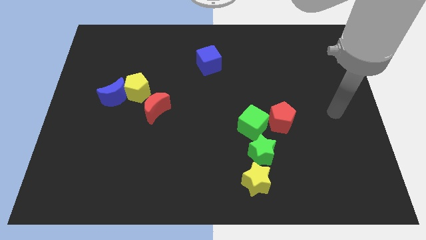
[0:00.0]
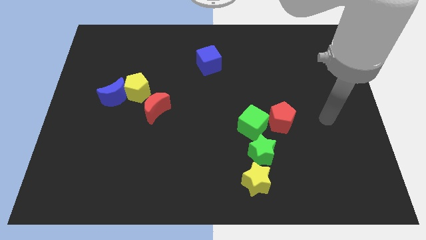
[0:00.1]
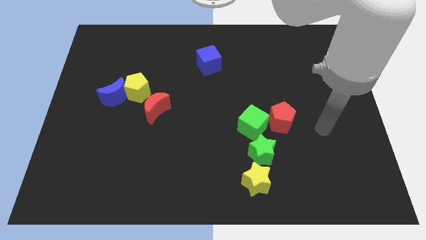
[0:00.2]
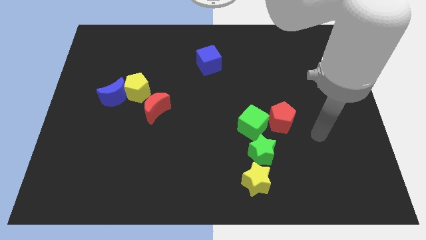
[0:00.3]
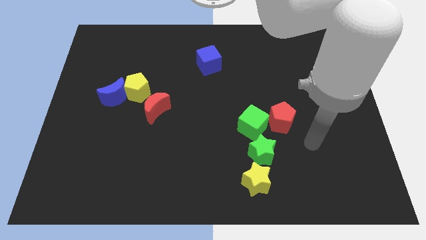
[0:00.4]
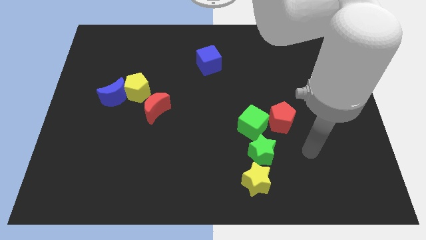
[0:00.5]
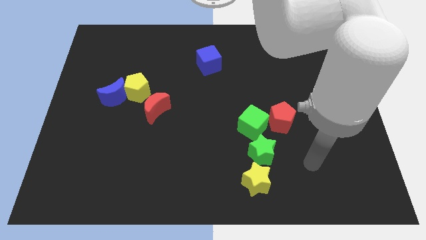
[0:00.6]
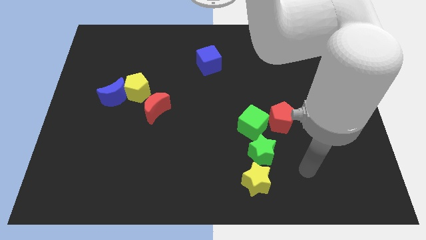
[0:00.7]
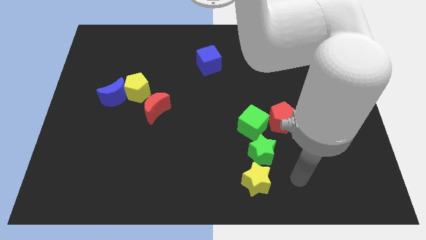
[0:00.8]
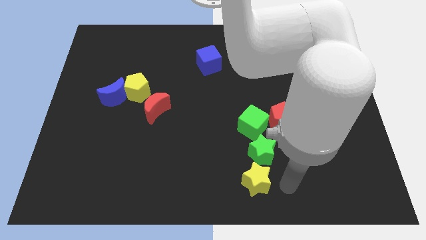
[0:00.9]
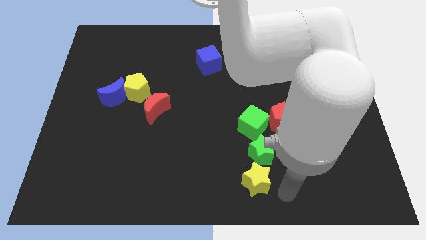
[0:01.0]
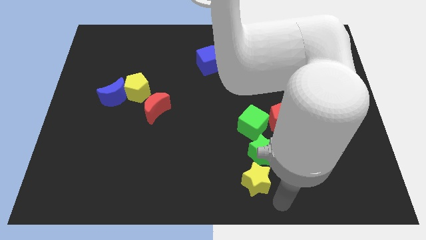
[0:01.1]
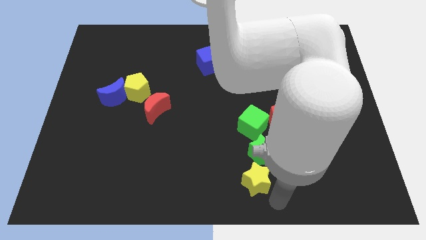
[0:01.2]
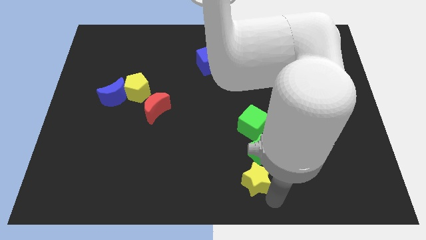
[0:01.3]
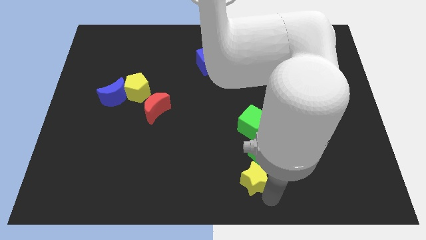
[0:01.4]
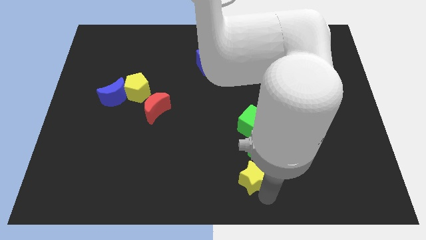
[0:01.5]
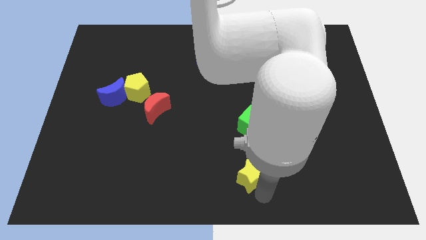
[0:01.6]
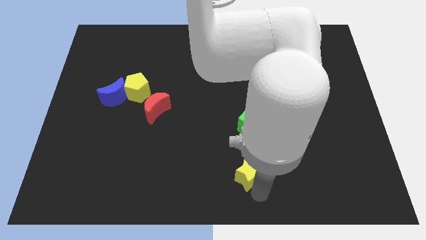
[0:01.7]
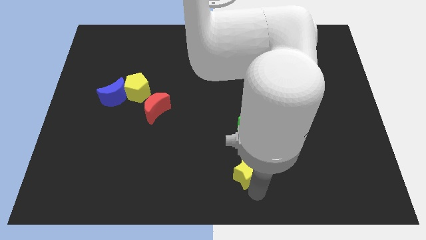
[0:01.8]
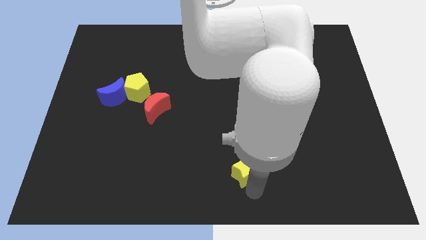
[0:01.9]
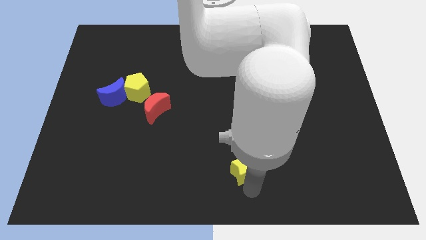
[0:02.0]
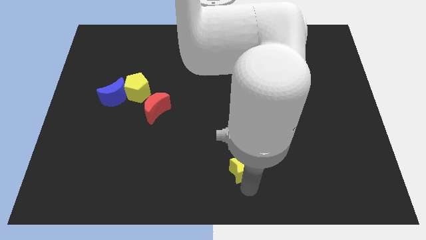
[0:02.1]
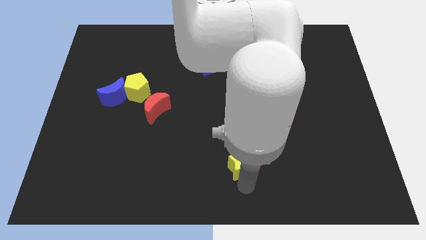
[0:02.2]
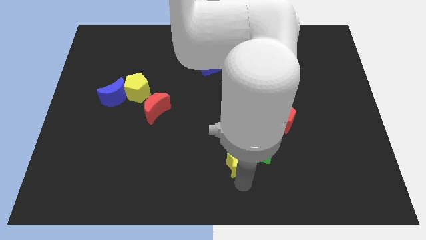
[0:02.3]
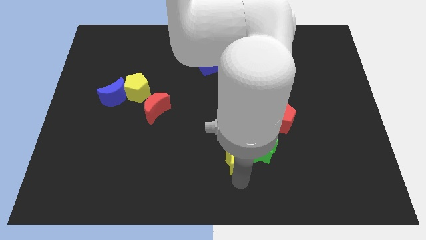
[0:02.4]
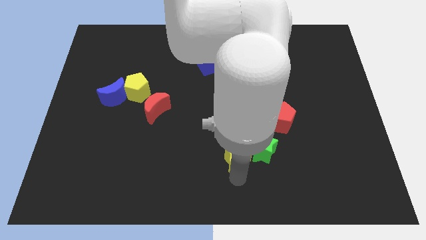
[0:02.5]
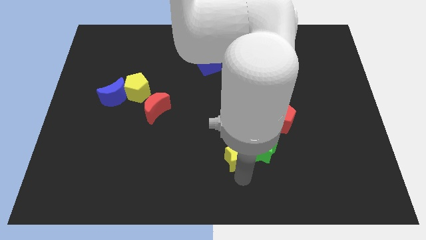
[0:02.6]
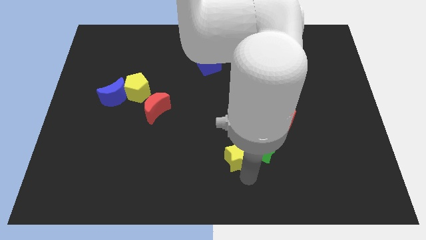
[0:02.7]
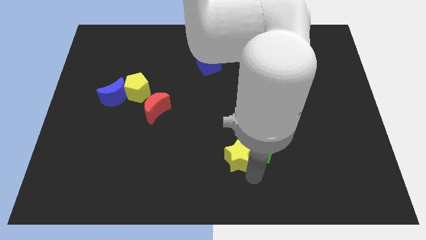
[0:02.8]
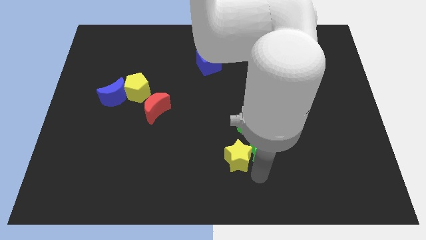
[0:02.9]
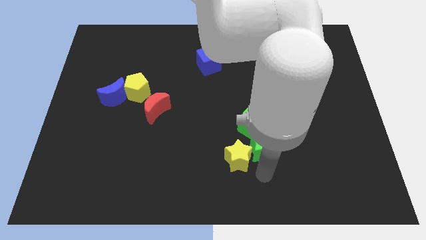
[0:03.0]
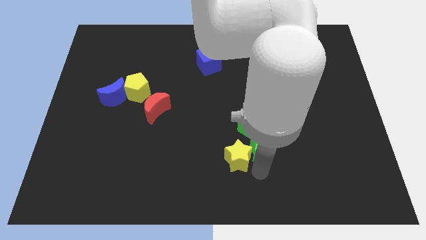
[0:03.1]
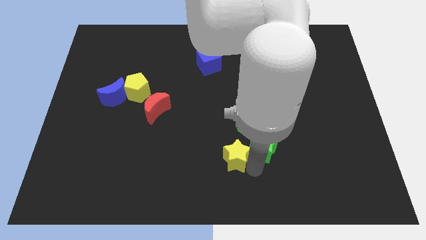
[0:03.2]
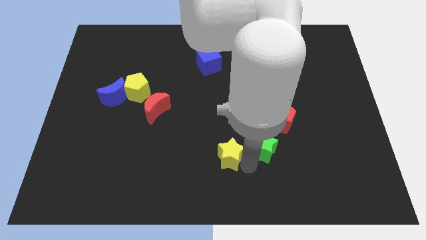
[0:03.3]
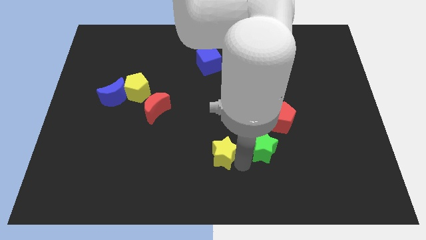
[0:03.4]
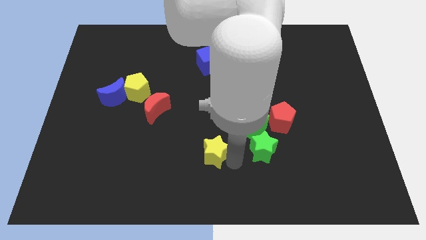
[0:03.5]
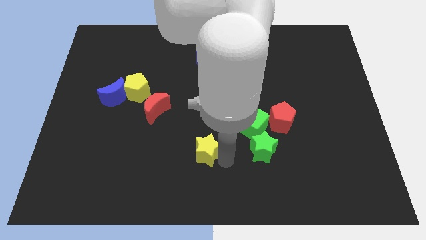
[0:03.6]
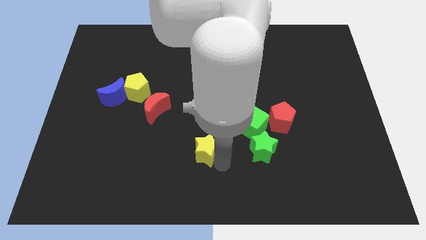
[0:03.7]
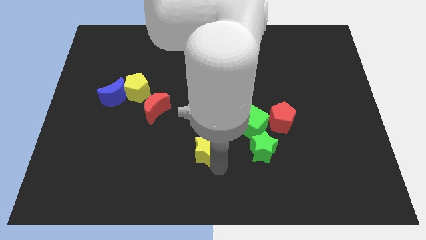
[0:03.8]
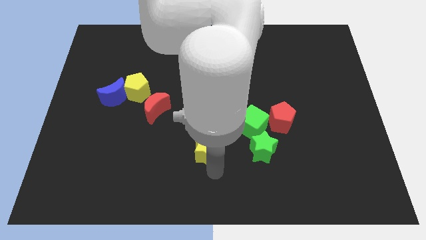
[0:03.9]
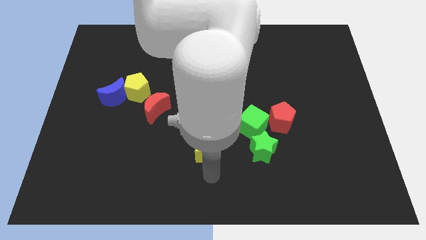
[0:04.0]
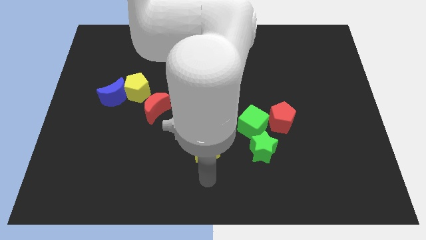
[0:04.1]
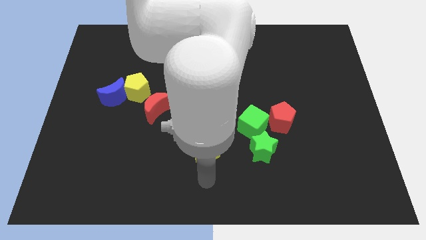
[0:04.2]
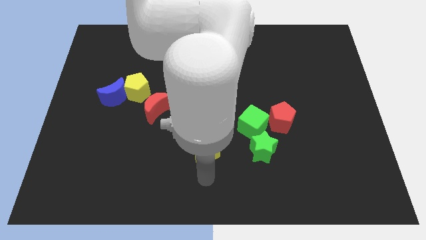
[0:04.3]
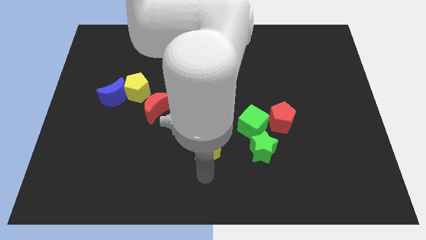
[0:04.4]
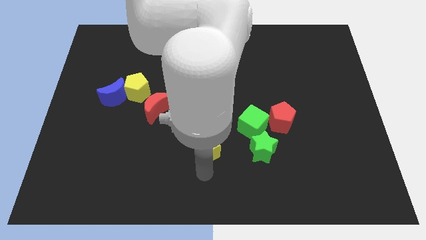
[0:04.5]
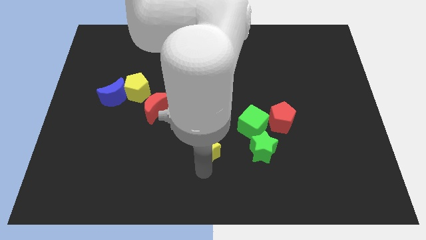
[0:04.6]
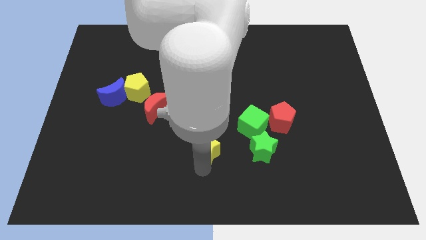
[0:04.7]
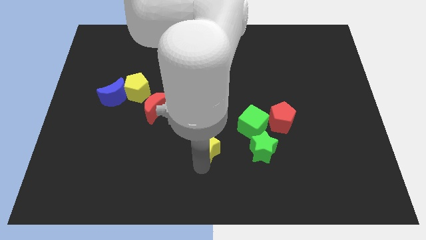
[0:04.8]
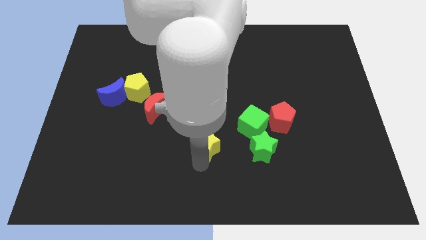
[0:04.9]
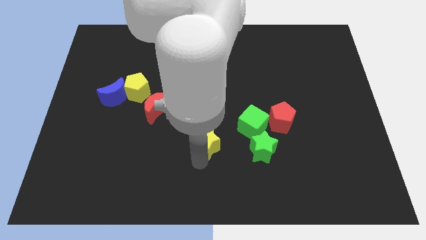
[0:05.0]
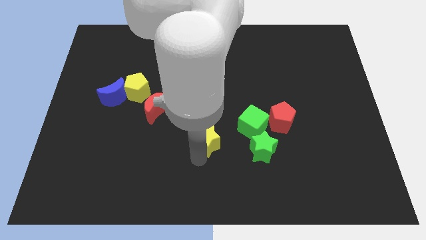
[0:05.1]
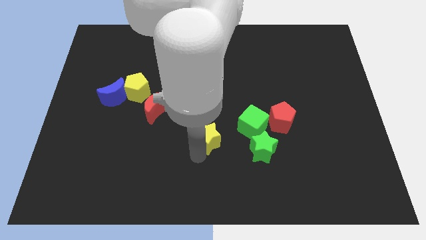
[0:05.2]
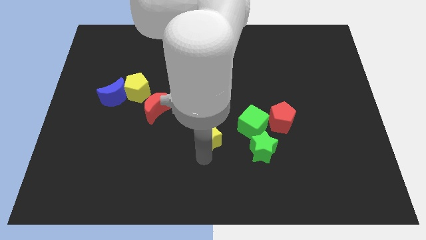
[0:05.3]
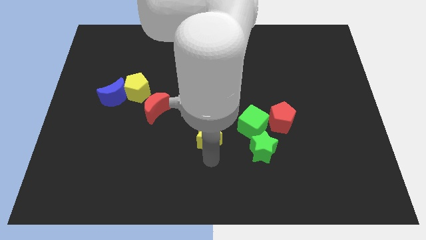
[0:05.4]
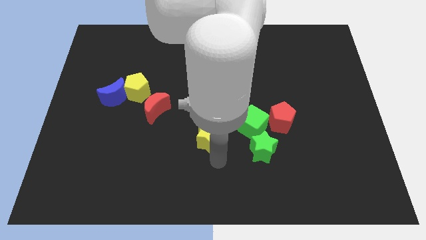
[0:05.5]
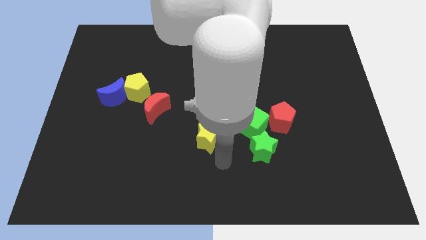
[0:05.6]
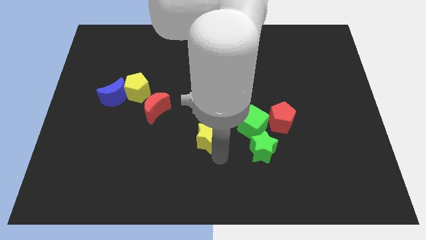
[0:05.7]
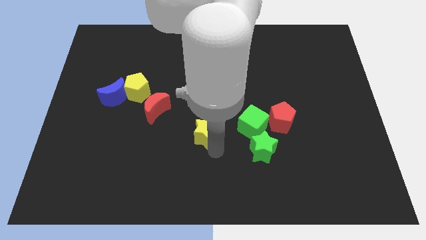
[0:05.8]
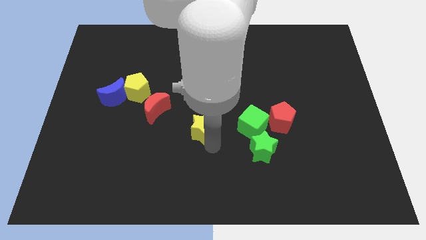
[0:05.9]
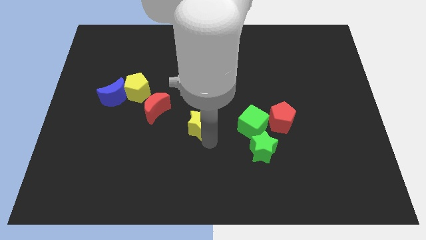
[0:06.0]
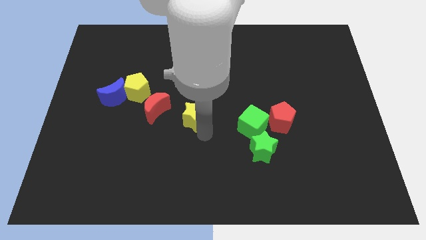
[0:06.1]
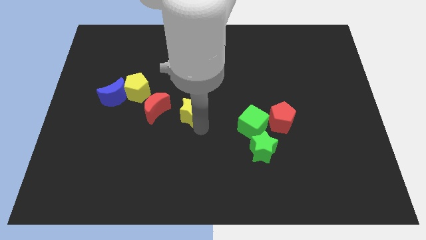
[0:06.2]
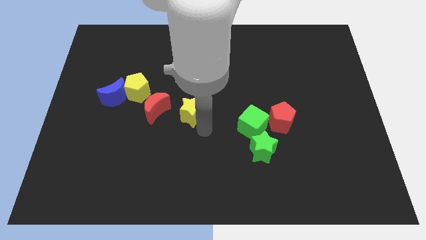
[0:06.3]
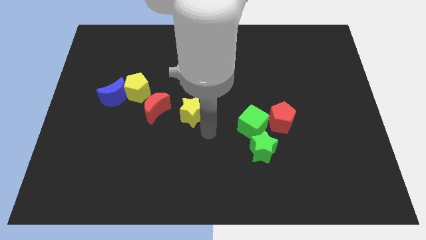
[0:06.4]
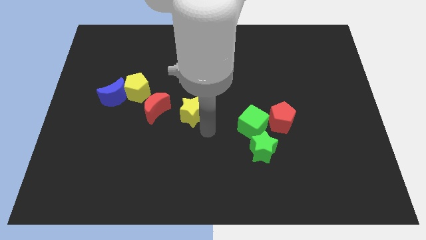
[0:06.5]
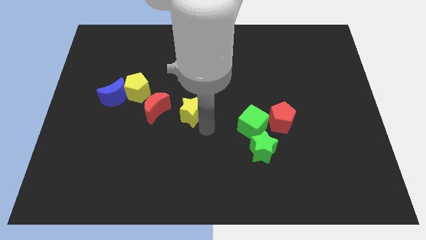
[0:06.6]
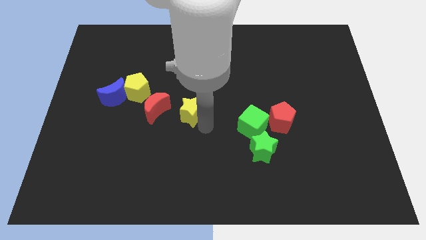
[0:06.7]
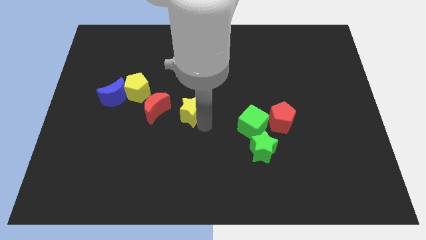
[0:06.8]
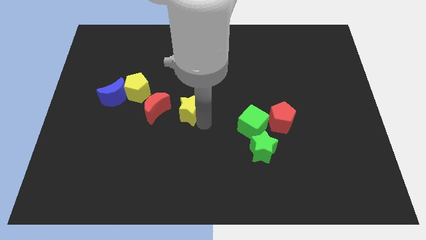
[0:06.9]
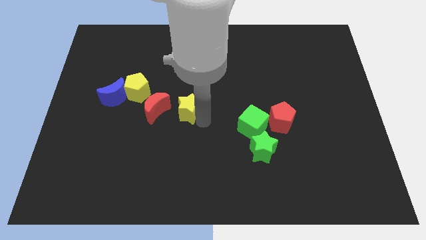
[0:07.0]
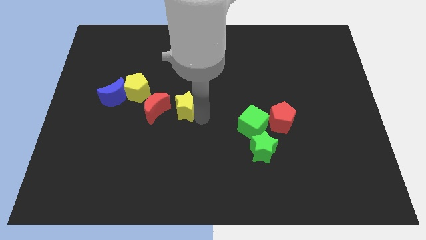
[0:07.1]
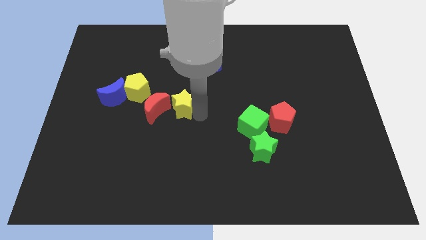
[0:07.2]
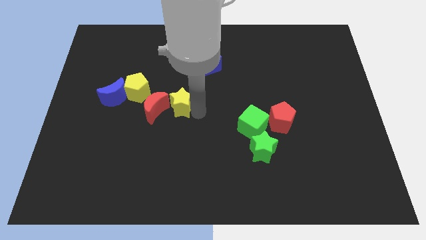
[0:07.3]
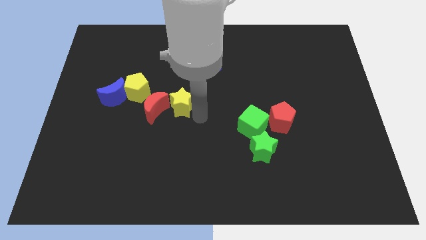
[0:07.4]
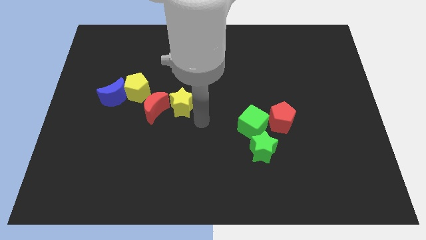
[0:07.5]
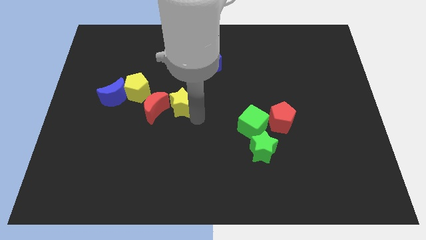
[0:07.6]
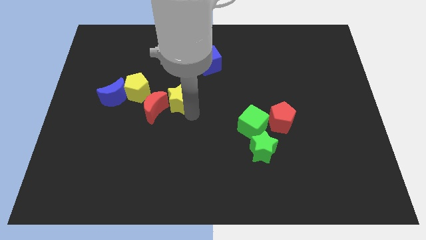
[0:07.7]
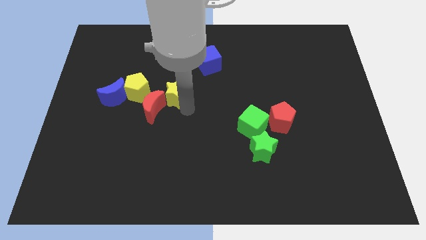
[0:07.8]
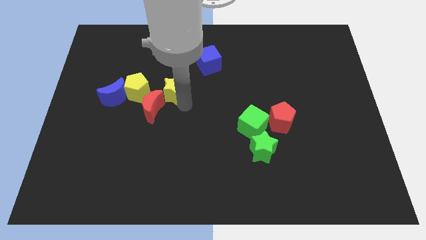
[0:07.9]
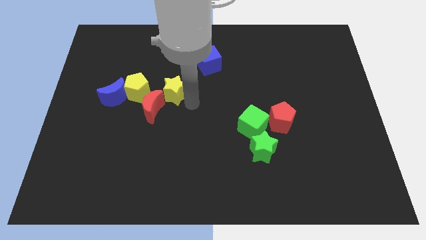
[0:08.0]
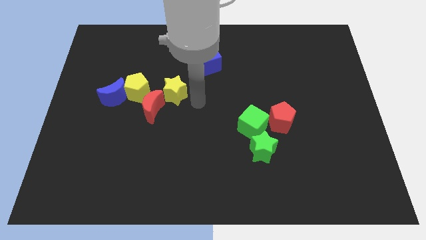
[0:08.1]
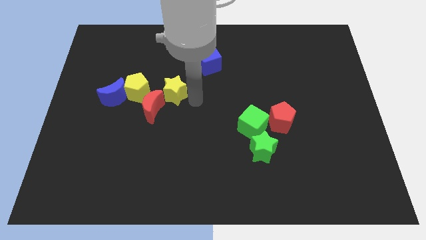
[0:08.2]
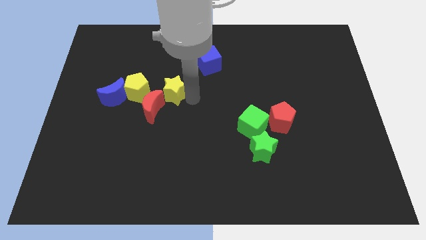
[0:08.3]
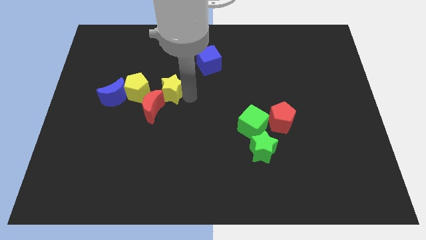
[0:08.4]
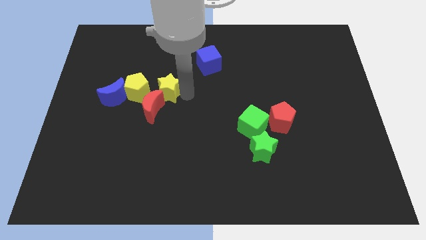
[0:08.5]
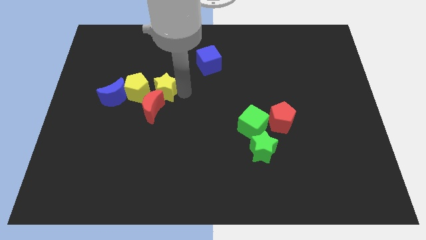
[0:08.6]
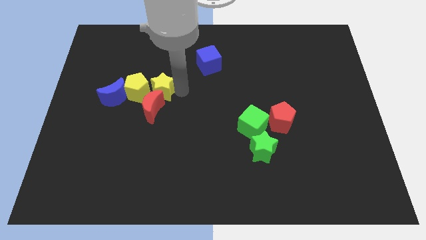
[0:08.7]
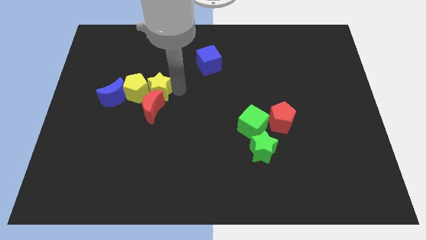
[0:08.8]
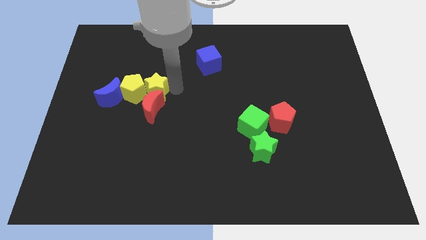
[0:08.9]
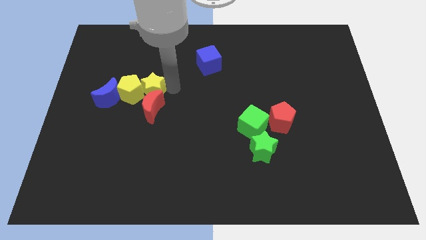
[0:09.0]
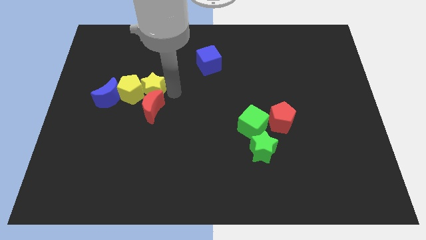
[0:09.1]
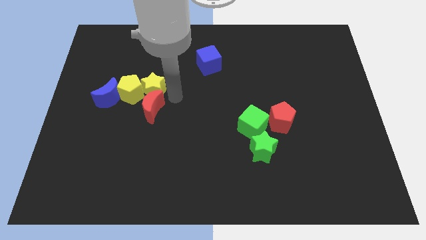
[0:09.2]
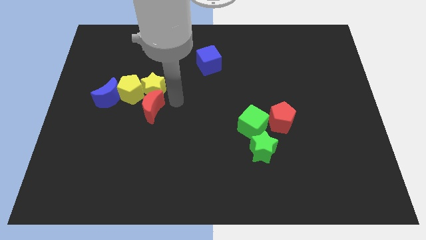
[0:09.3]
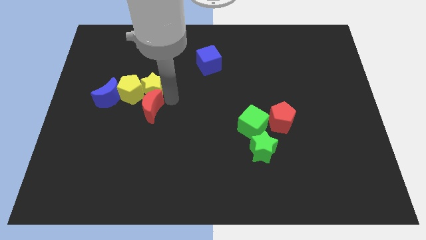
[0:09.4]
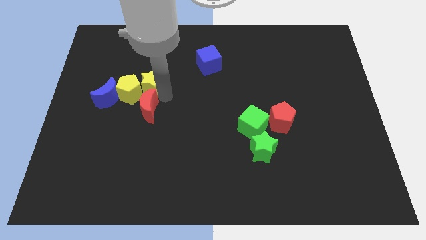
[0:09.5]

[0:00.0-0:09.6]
push the yellow star to the top right side of the blue moon
